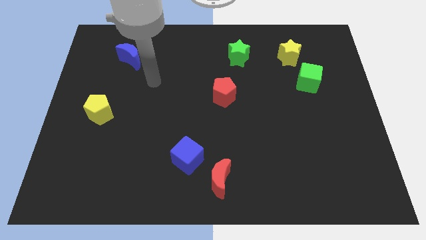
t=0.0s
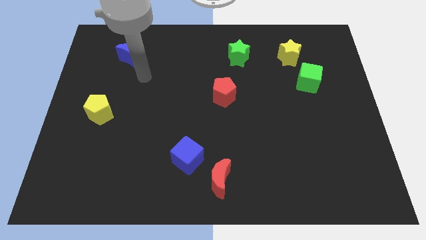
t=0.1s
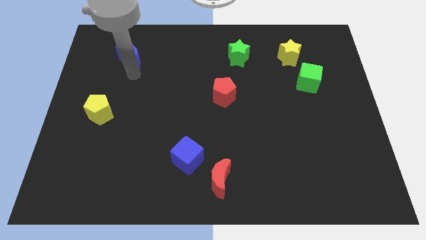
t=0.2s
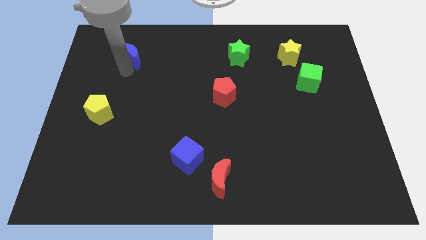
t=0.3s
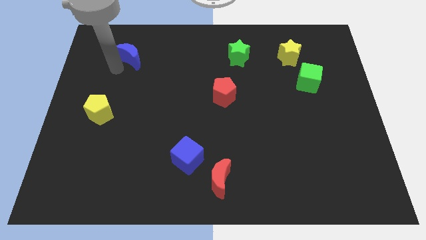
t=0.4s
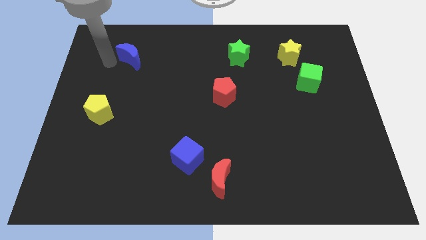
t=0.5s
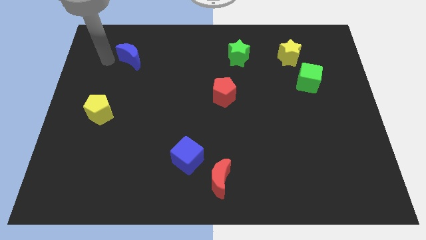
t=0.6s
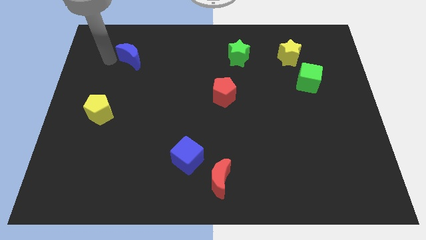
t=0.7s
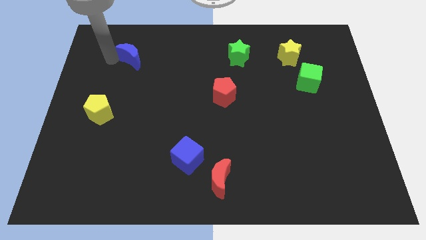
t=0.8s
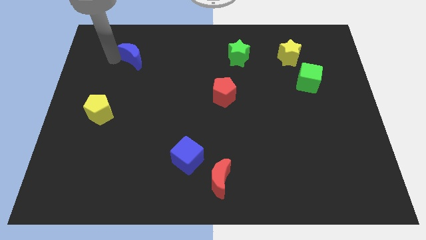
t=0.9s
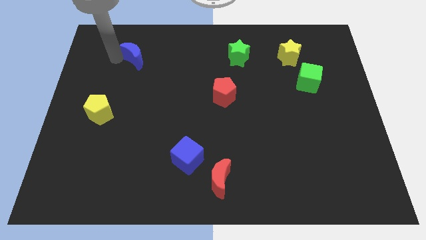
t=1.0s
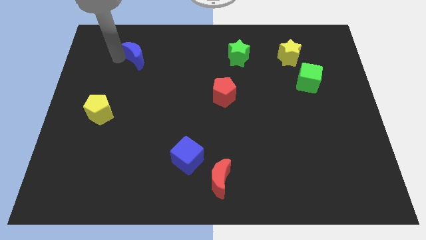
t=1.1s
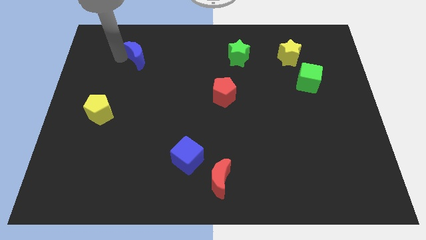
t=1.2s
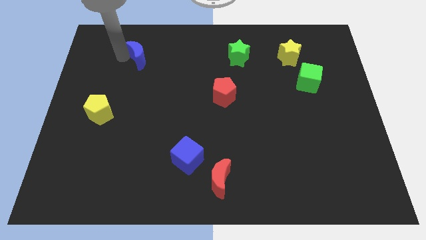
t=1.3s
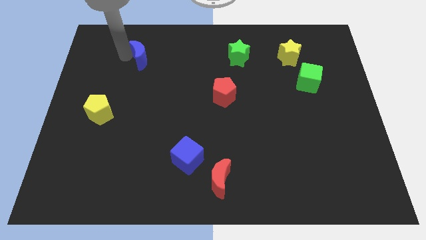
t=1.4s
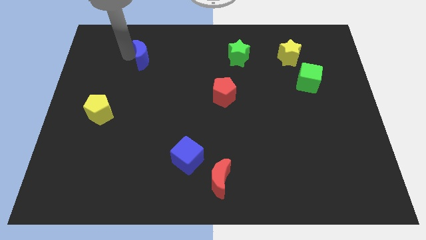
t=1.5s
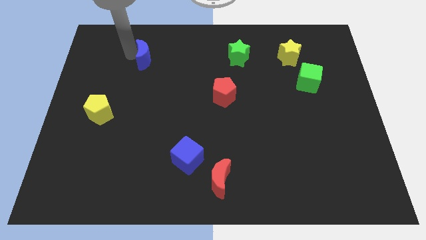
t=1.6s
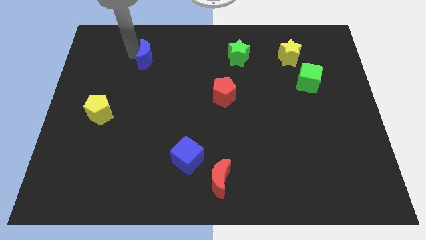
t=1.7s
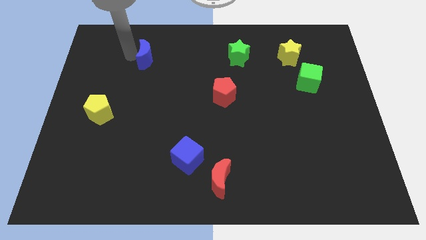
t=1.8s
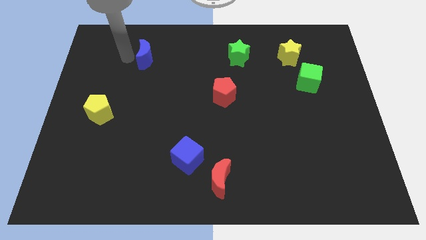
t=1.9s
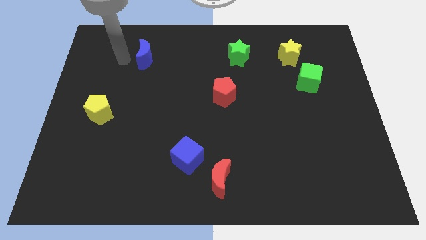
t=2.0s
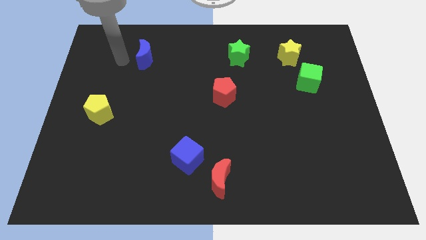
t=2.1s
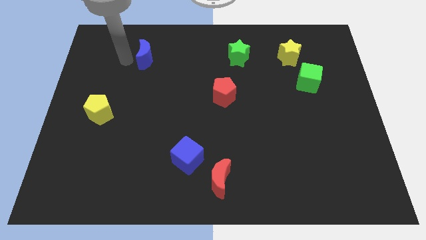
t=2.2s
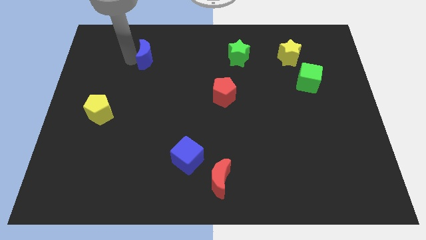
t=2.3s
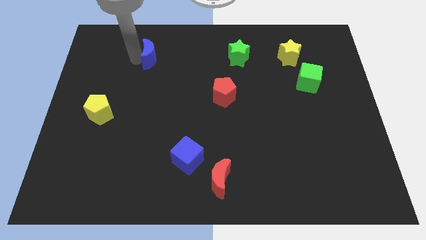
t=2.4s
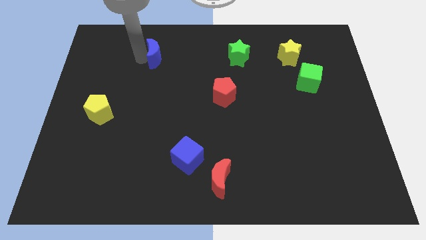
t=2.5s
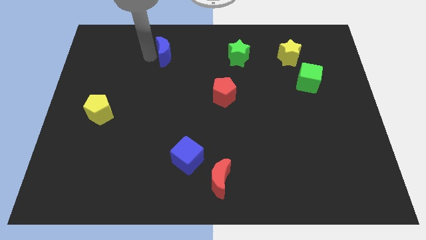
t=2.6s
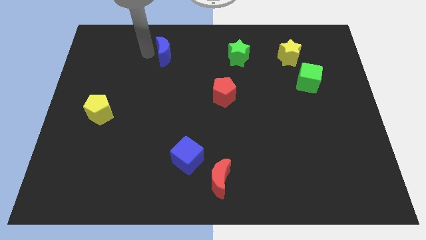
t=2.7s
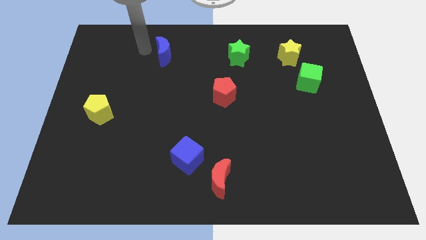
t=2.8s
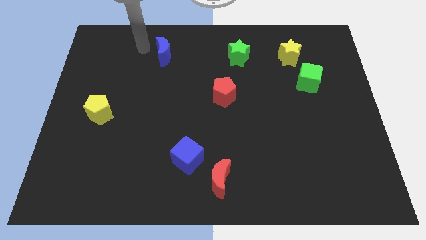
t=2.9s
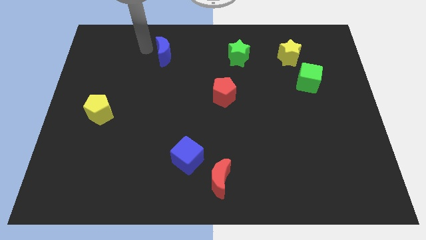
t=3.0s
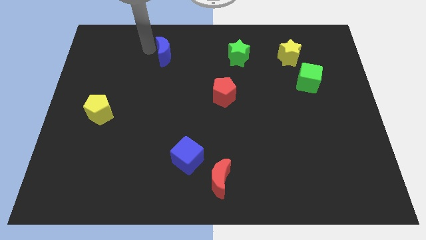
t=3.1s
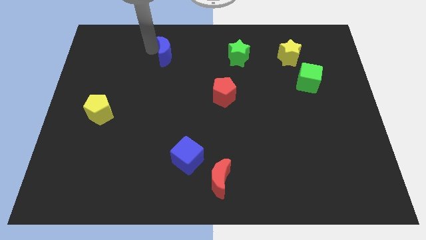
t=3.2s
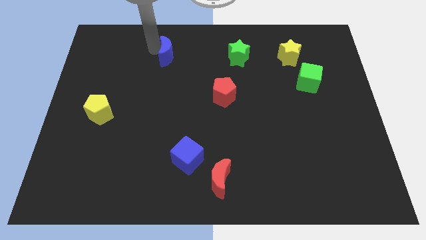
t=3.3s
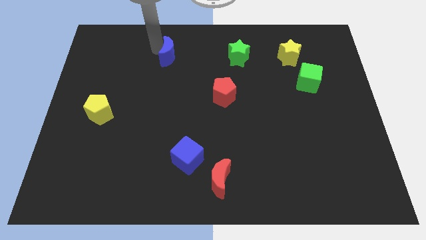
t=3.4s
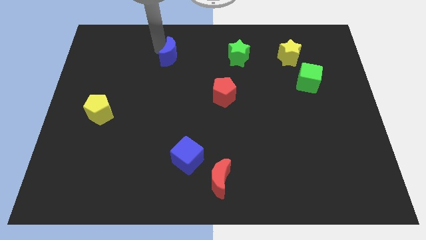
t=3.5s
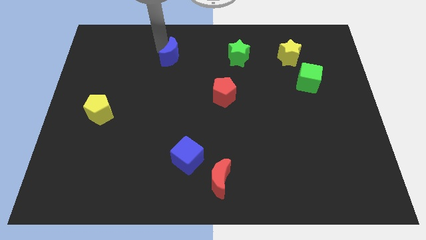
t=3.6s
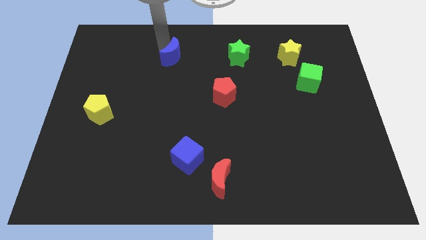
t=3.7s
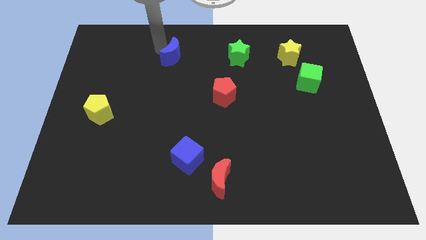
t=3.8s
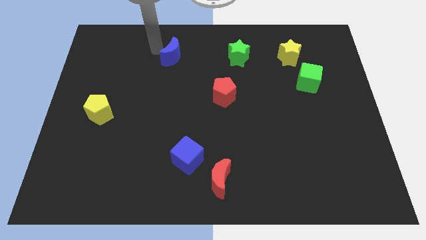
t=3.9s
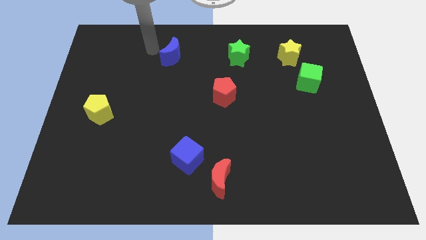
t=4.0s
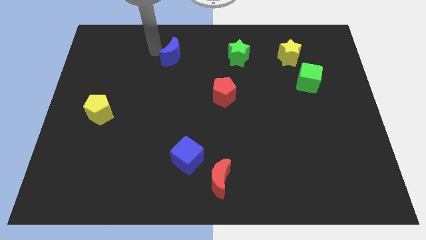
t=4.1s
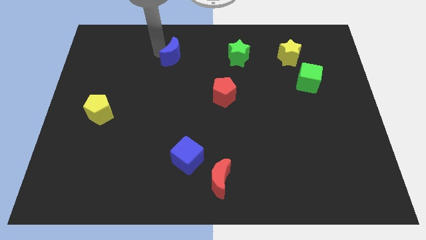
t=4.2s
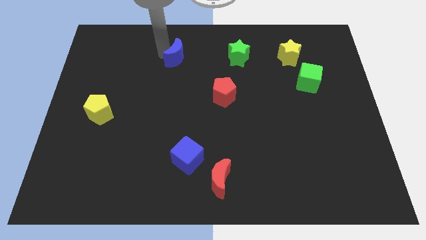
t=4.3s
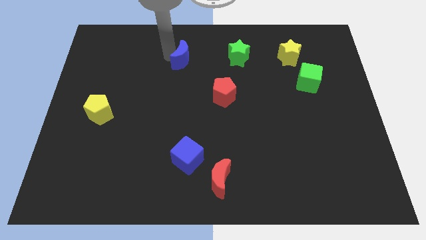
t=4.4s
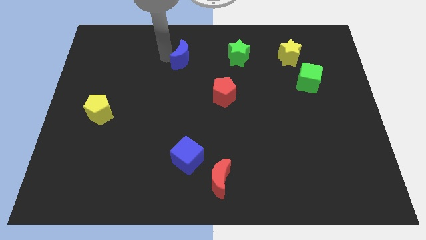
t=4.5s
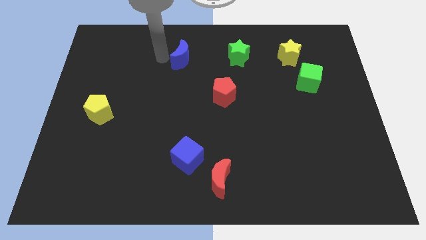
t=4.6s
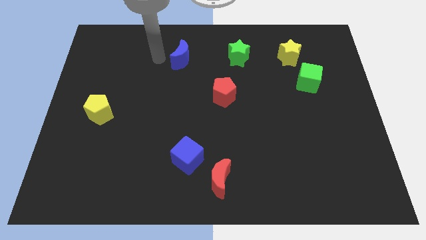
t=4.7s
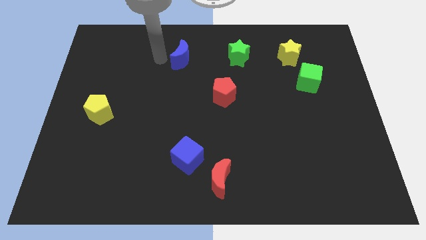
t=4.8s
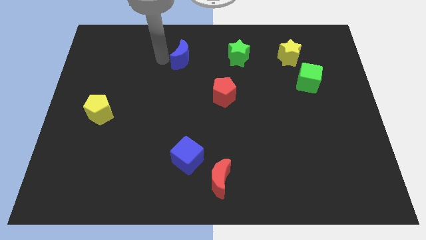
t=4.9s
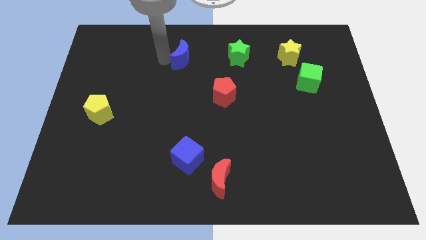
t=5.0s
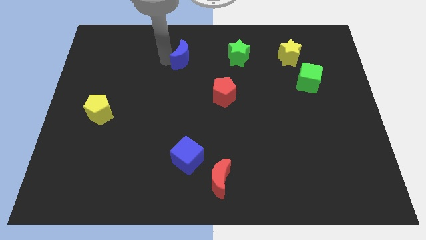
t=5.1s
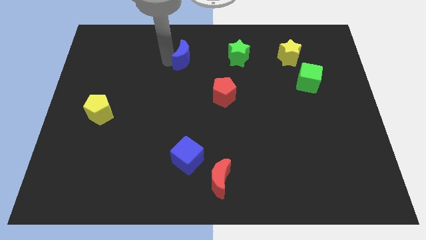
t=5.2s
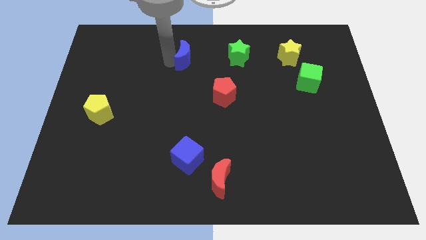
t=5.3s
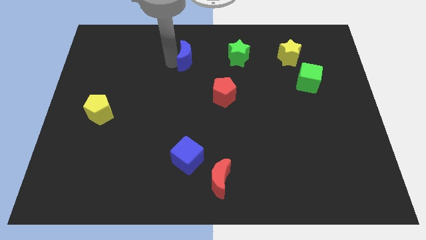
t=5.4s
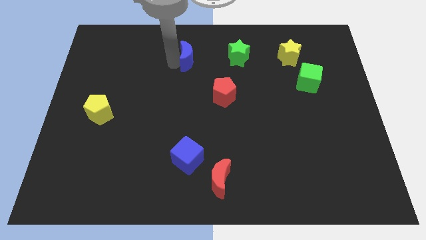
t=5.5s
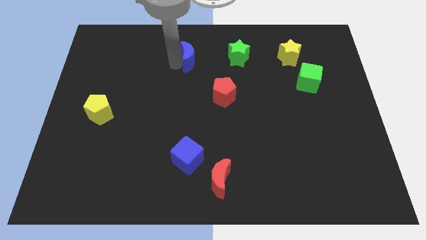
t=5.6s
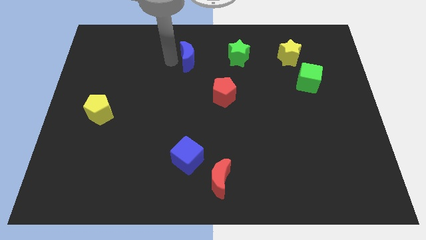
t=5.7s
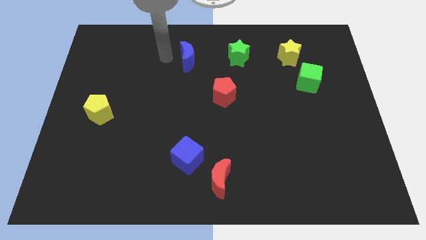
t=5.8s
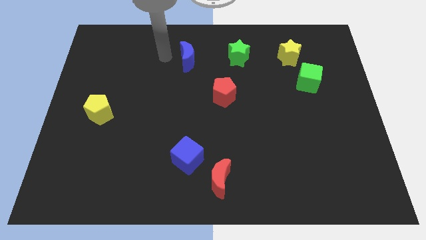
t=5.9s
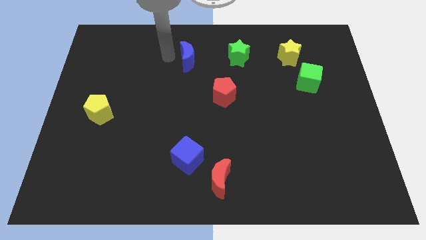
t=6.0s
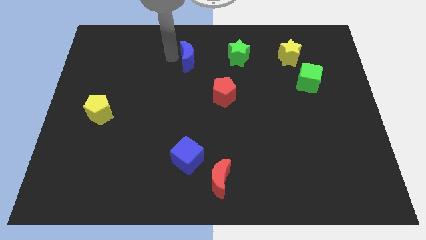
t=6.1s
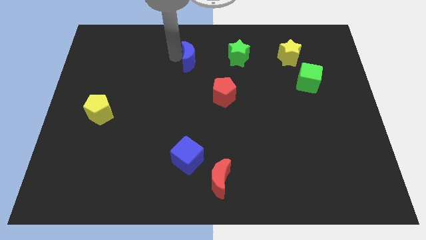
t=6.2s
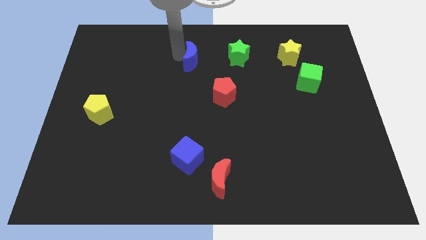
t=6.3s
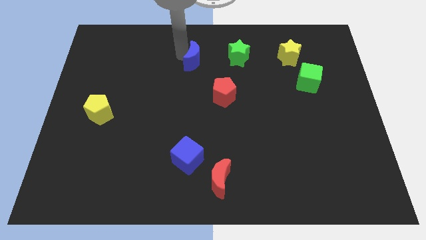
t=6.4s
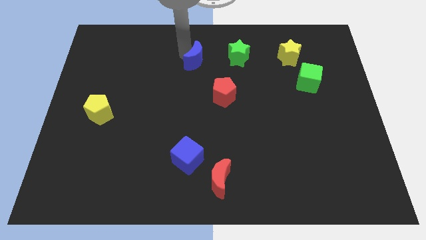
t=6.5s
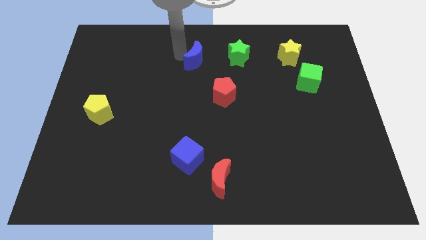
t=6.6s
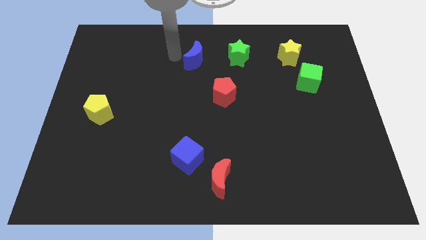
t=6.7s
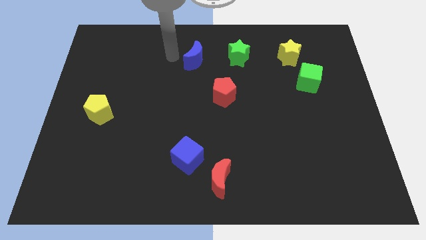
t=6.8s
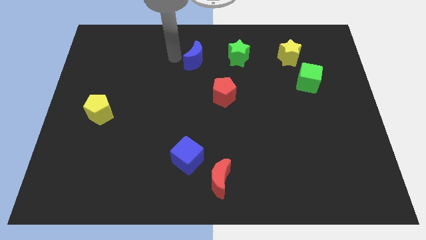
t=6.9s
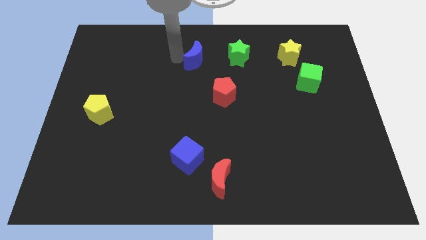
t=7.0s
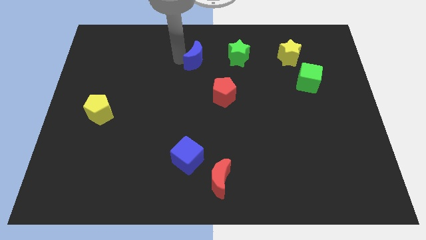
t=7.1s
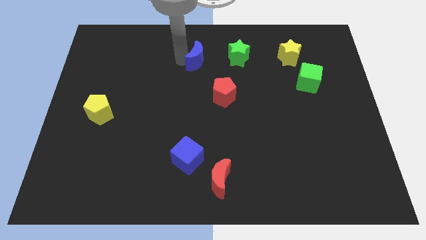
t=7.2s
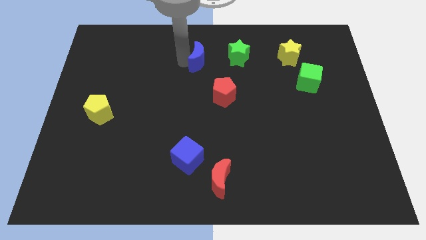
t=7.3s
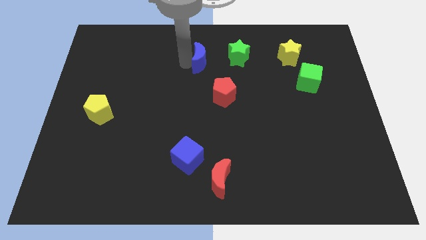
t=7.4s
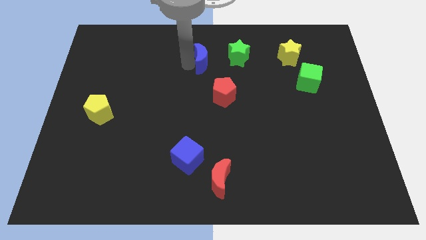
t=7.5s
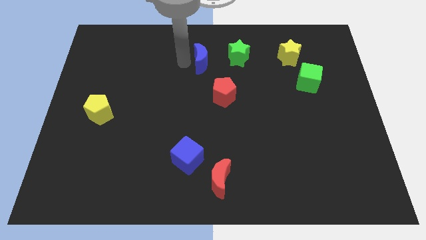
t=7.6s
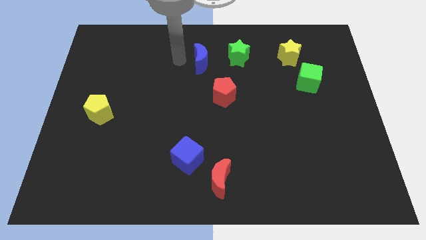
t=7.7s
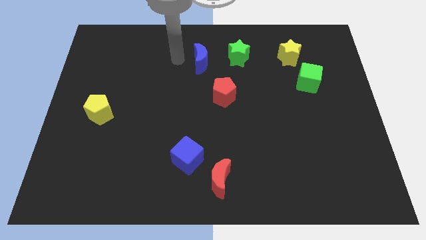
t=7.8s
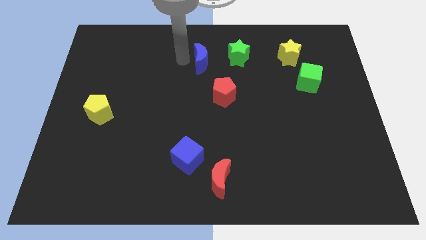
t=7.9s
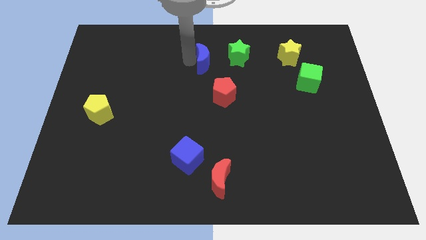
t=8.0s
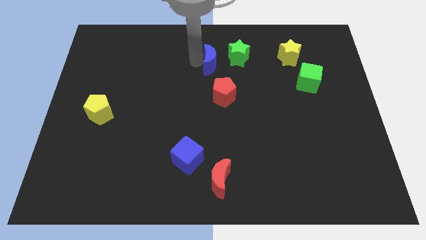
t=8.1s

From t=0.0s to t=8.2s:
push the blue moon to the top side of the red pentagon
